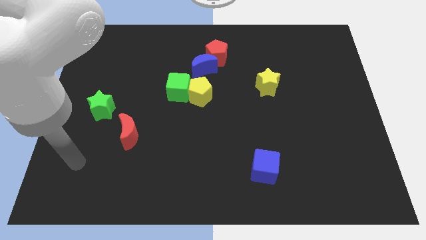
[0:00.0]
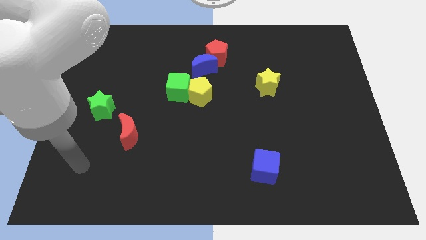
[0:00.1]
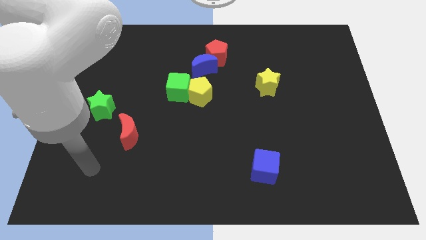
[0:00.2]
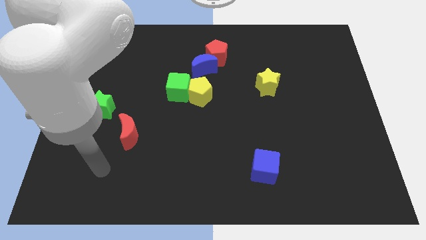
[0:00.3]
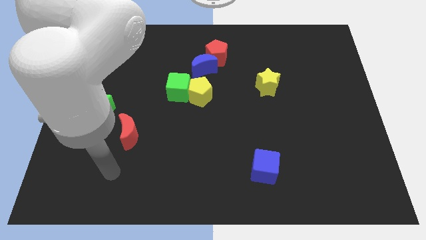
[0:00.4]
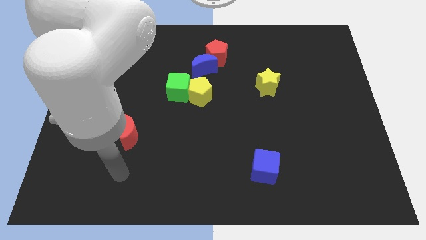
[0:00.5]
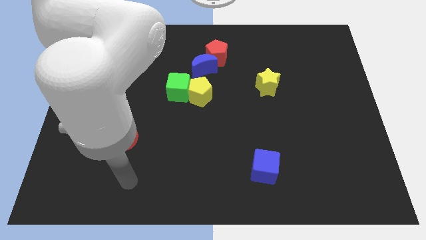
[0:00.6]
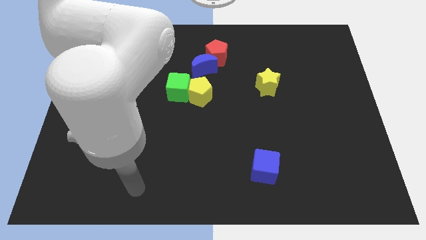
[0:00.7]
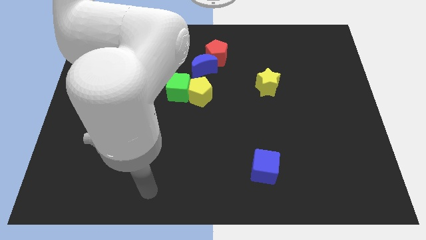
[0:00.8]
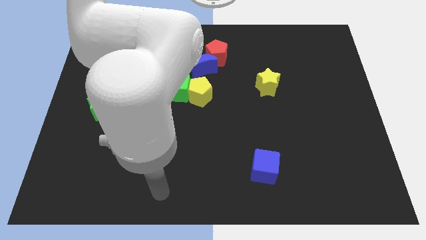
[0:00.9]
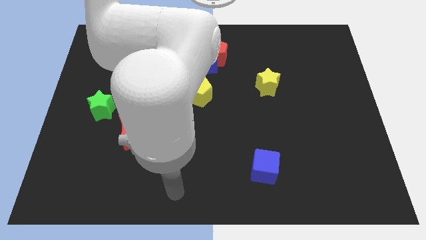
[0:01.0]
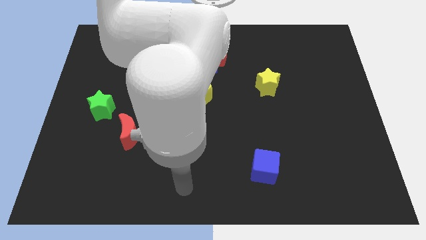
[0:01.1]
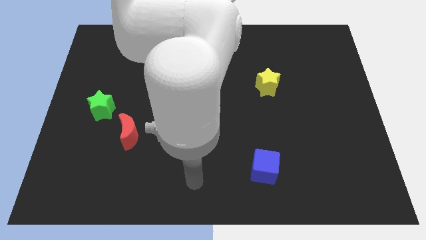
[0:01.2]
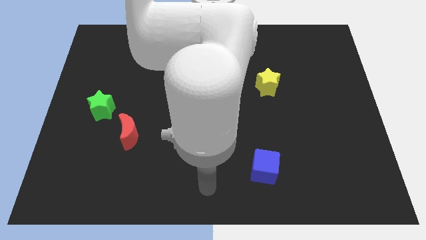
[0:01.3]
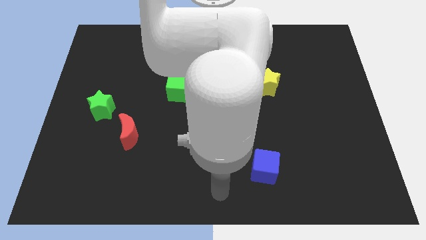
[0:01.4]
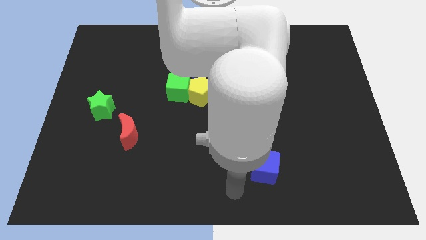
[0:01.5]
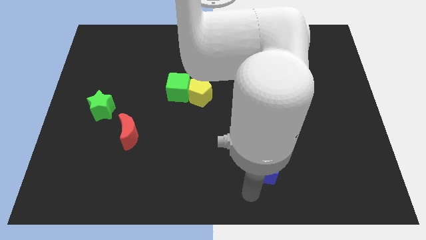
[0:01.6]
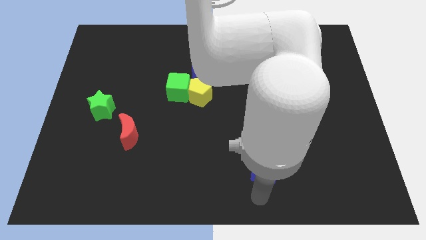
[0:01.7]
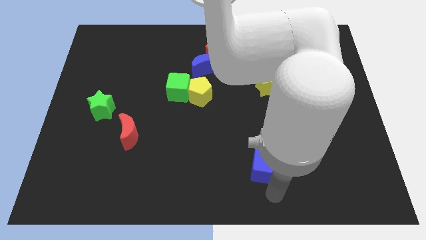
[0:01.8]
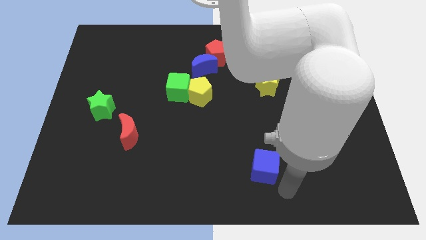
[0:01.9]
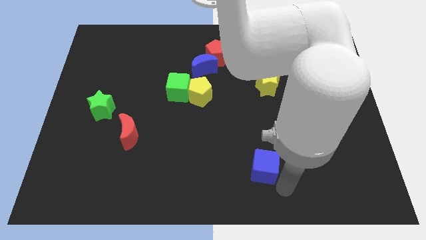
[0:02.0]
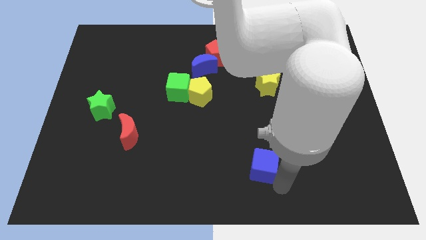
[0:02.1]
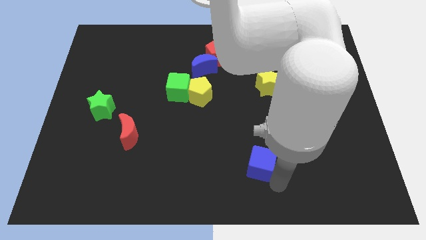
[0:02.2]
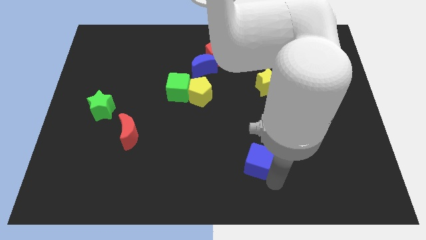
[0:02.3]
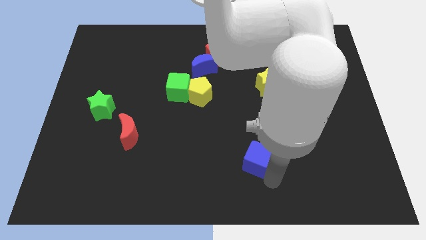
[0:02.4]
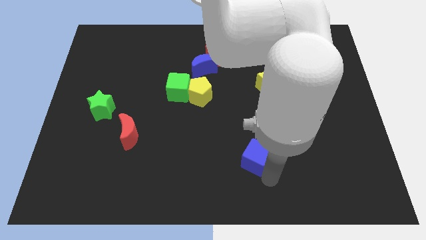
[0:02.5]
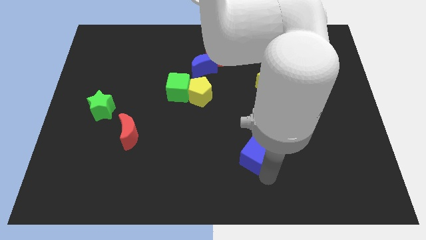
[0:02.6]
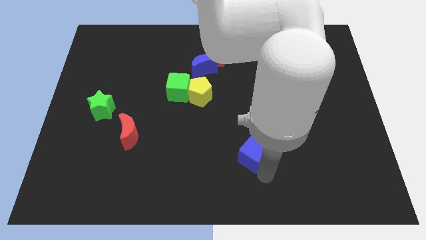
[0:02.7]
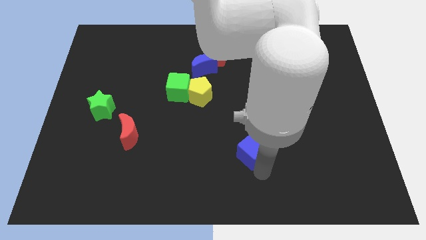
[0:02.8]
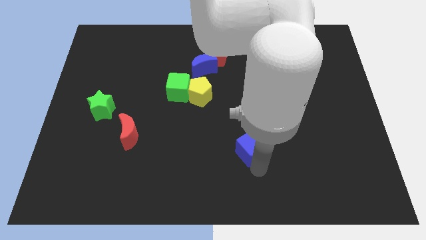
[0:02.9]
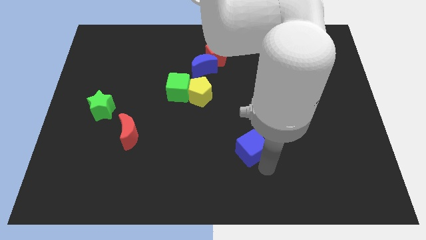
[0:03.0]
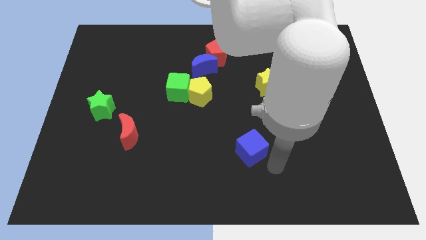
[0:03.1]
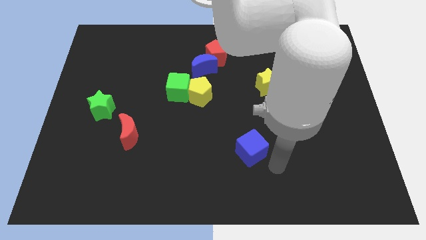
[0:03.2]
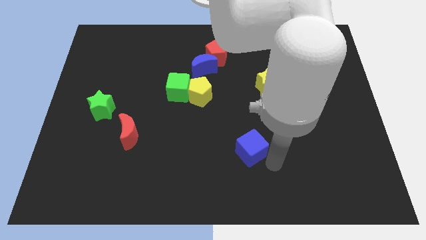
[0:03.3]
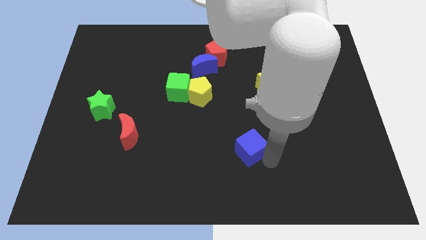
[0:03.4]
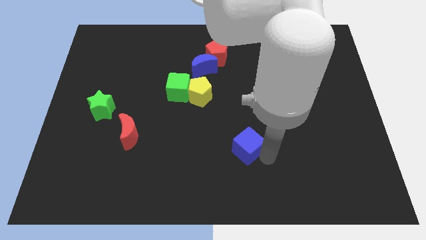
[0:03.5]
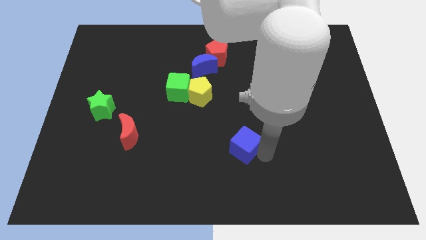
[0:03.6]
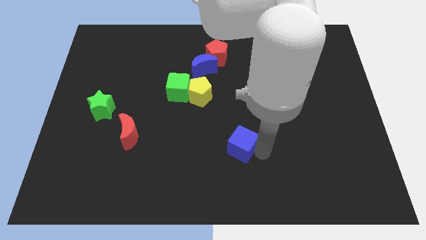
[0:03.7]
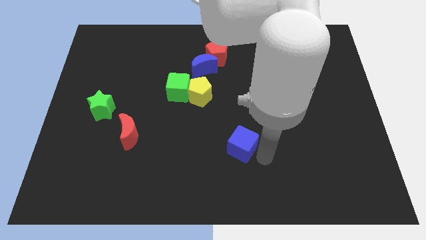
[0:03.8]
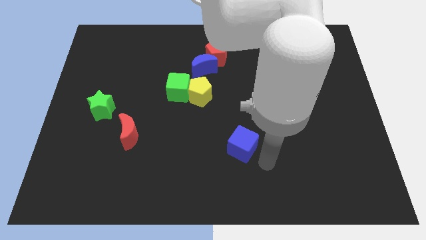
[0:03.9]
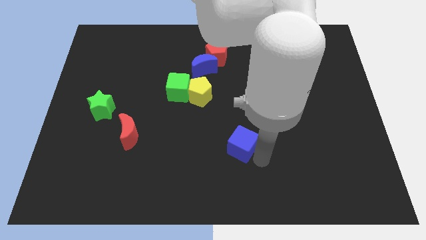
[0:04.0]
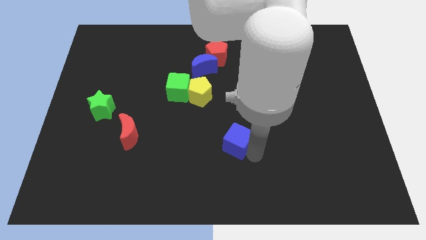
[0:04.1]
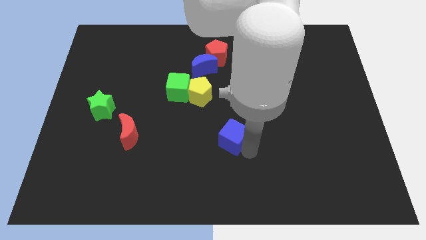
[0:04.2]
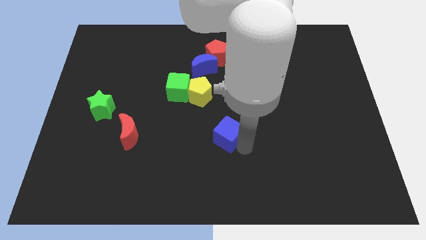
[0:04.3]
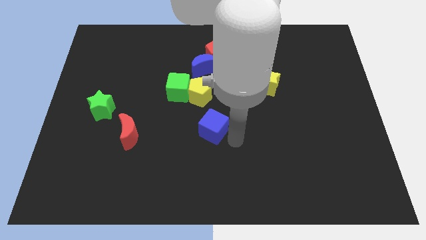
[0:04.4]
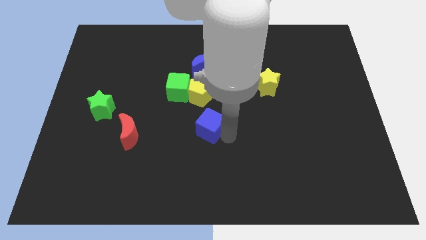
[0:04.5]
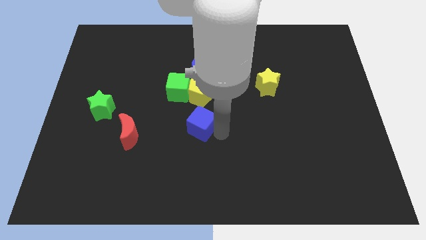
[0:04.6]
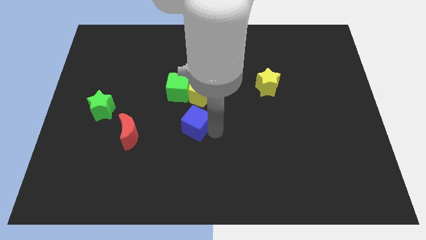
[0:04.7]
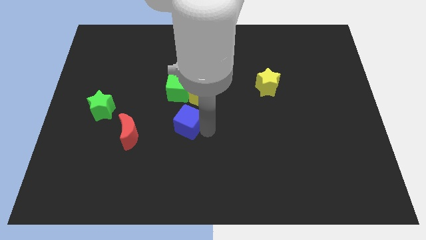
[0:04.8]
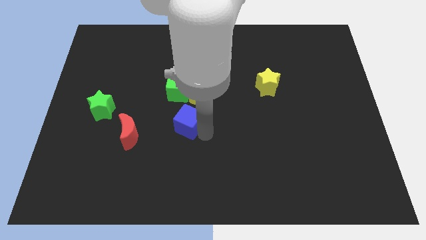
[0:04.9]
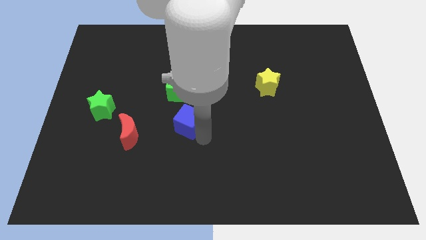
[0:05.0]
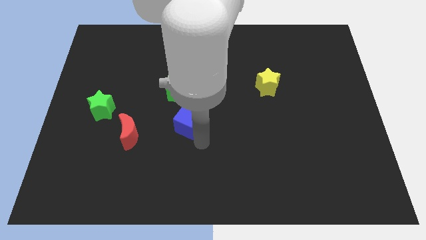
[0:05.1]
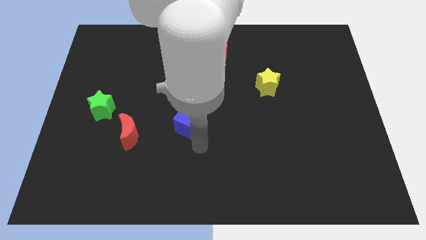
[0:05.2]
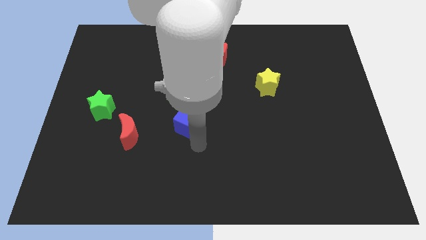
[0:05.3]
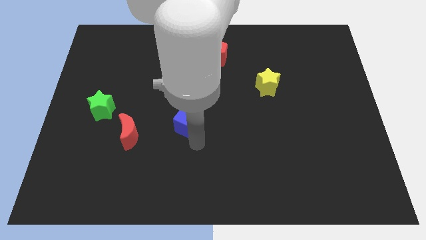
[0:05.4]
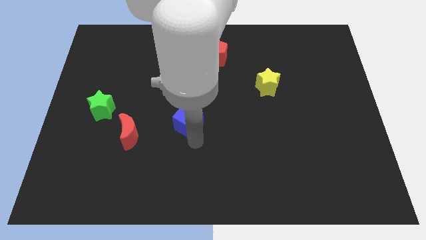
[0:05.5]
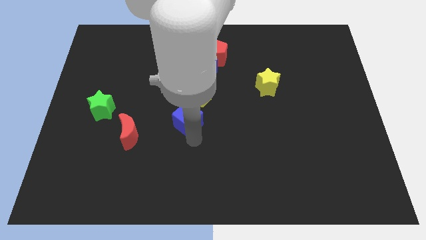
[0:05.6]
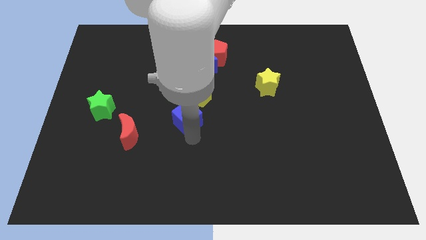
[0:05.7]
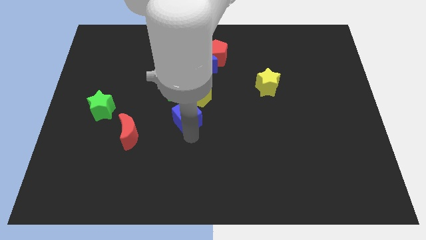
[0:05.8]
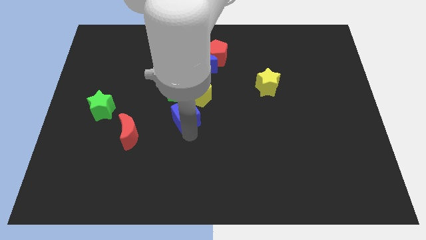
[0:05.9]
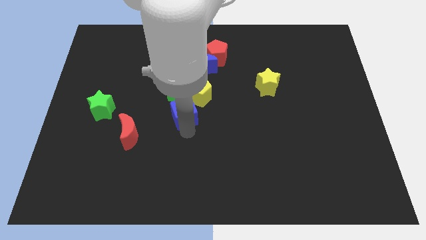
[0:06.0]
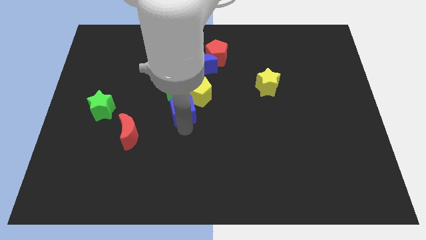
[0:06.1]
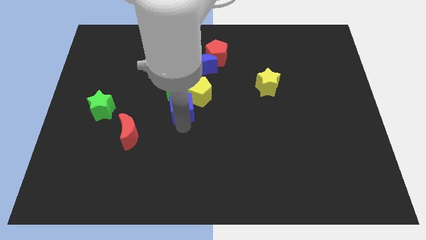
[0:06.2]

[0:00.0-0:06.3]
push the blue cube to the green cube
